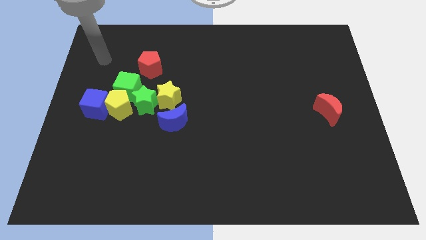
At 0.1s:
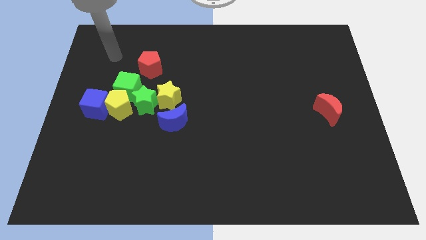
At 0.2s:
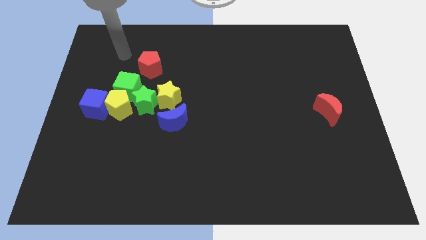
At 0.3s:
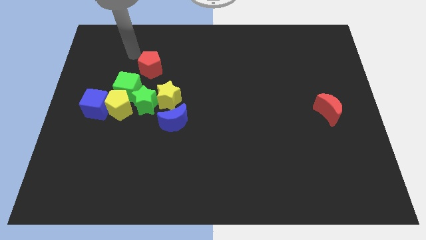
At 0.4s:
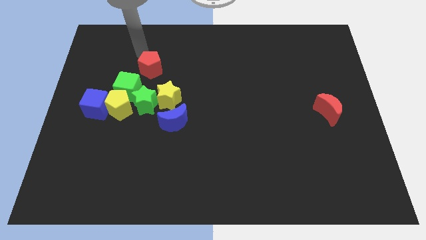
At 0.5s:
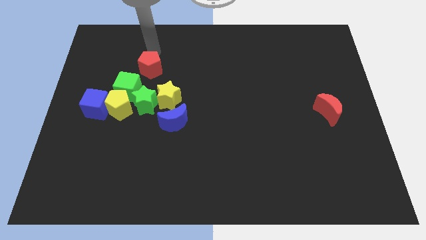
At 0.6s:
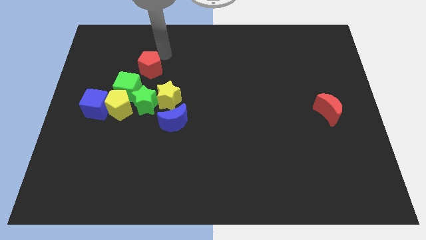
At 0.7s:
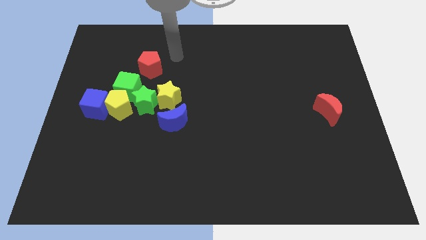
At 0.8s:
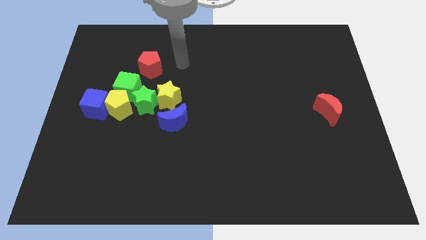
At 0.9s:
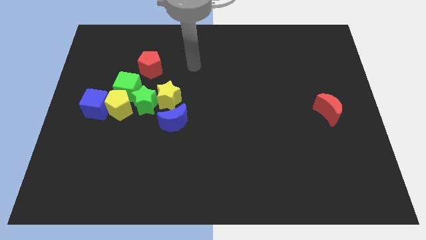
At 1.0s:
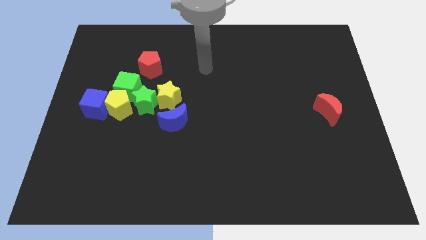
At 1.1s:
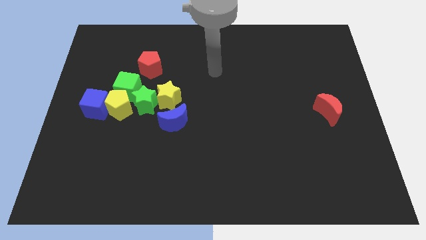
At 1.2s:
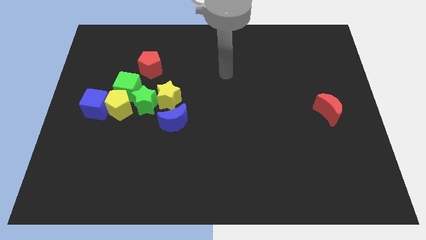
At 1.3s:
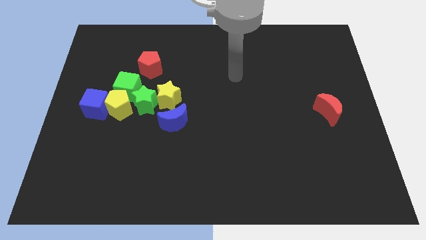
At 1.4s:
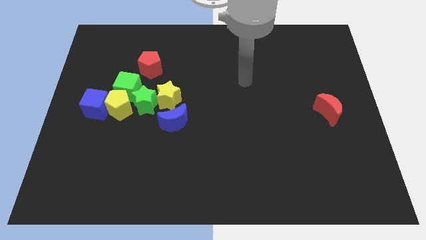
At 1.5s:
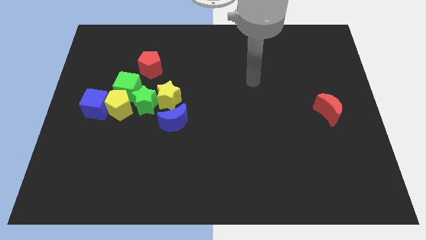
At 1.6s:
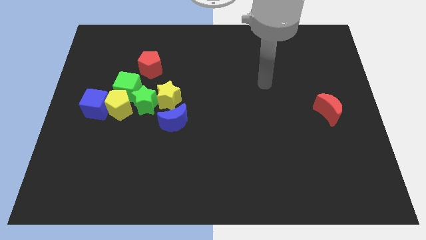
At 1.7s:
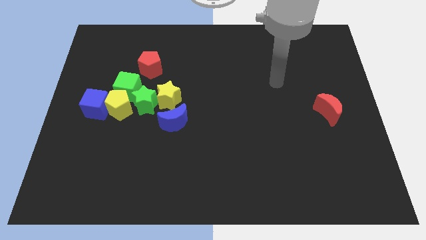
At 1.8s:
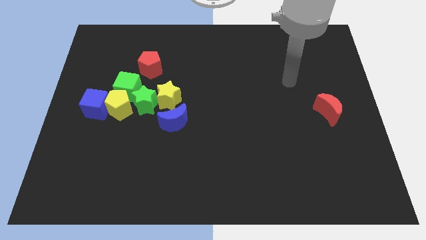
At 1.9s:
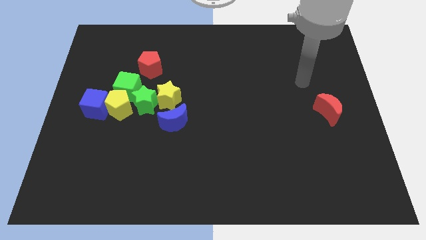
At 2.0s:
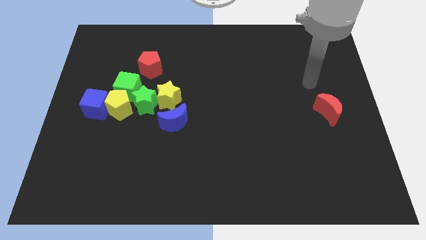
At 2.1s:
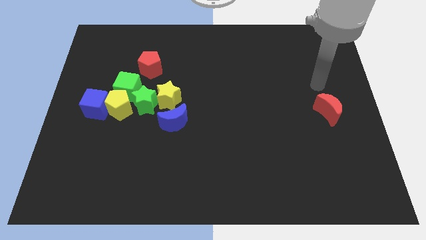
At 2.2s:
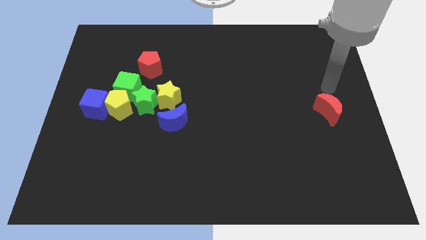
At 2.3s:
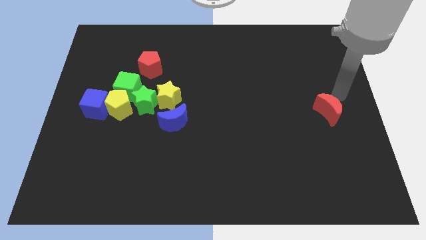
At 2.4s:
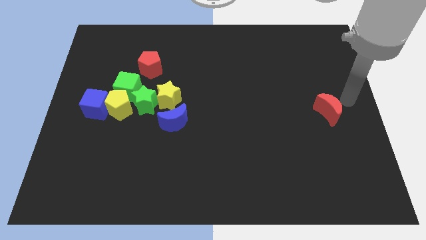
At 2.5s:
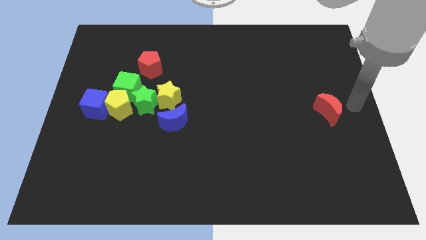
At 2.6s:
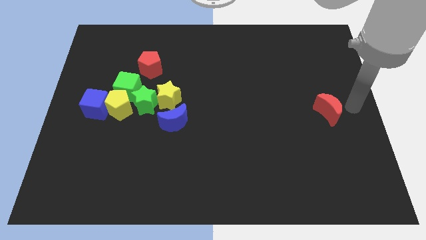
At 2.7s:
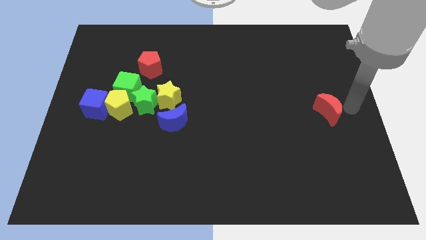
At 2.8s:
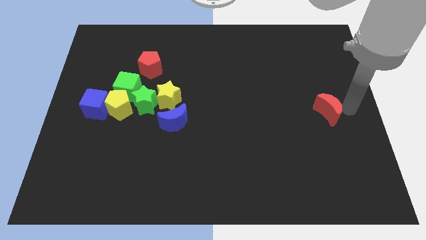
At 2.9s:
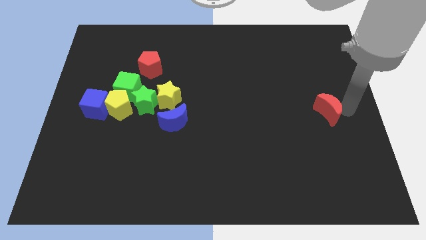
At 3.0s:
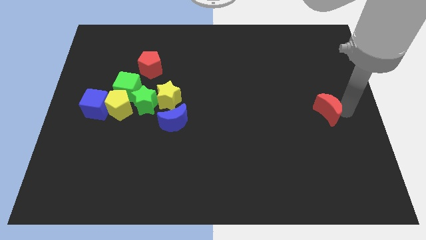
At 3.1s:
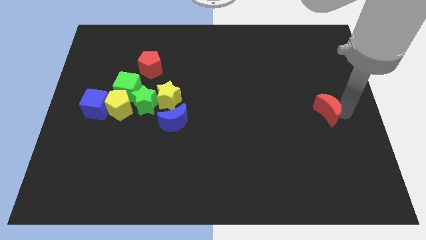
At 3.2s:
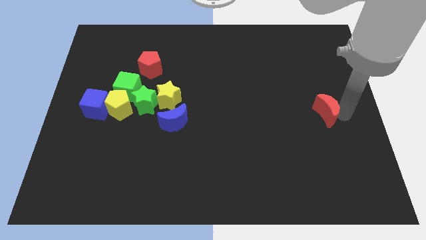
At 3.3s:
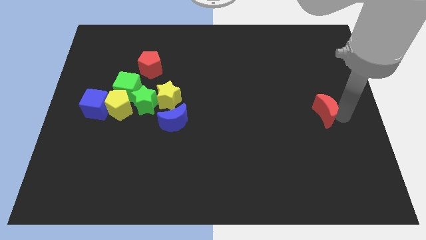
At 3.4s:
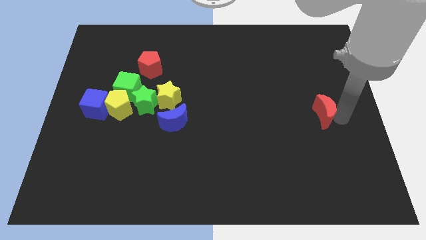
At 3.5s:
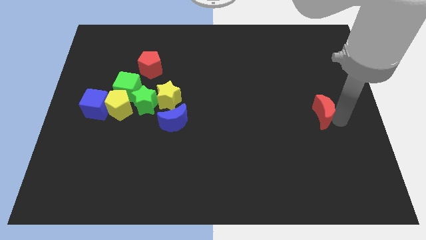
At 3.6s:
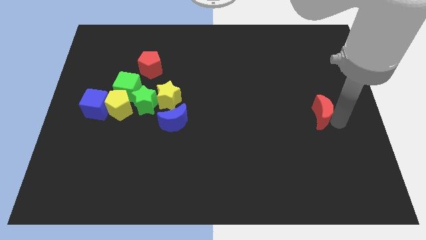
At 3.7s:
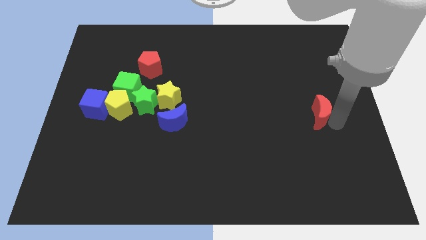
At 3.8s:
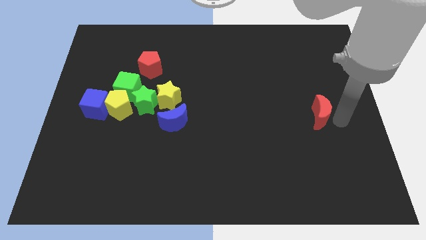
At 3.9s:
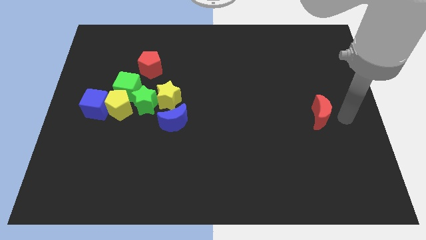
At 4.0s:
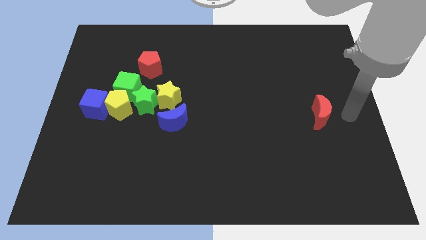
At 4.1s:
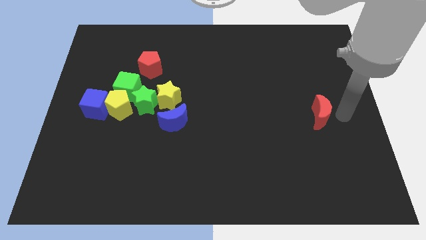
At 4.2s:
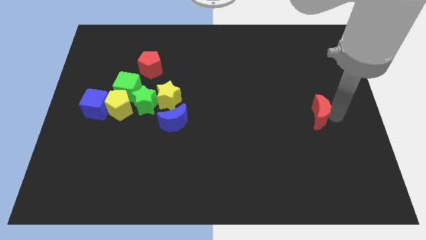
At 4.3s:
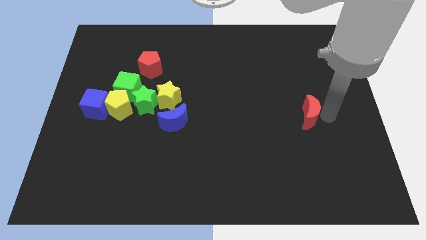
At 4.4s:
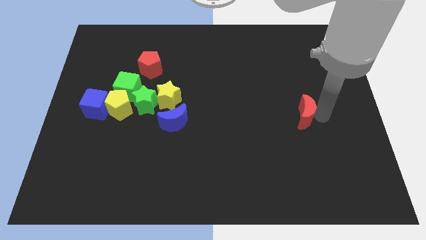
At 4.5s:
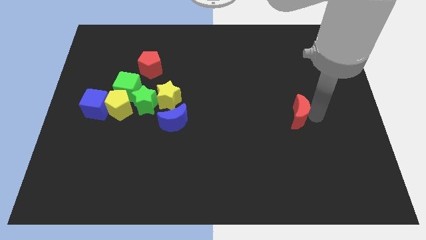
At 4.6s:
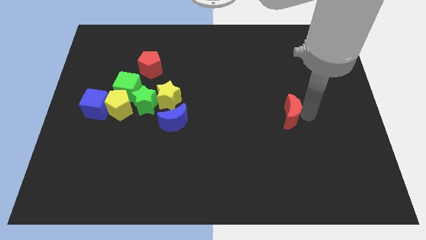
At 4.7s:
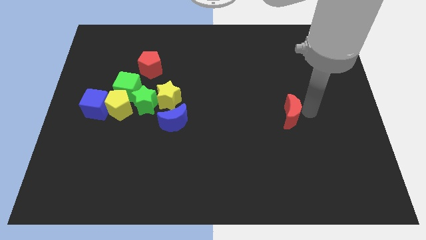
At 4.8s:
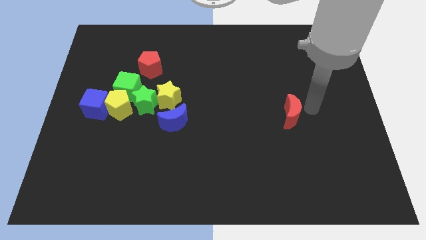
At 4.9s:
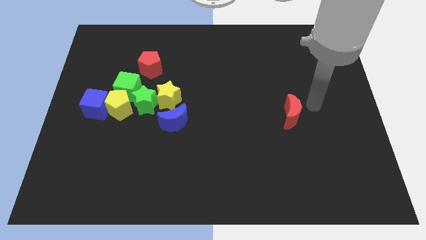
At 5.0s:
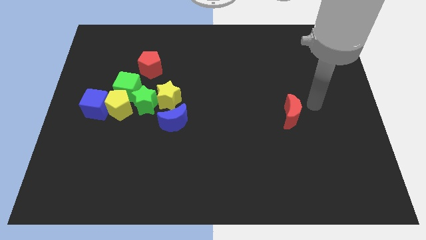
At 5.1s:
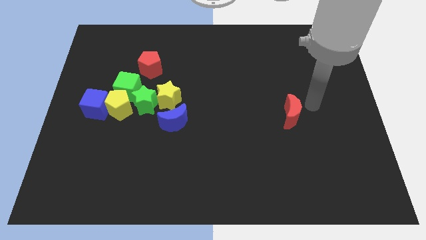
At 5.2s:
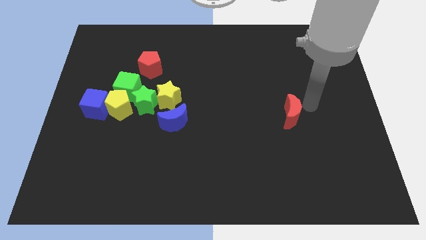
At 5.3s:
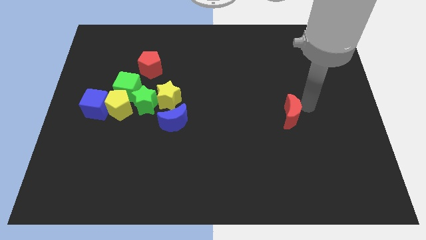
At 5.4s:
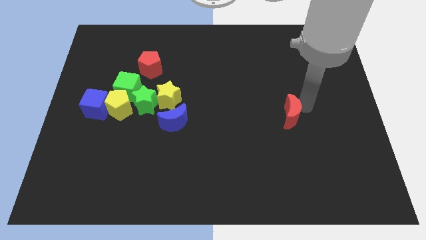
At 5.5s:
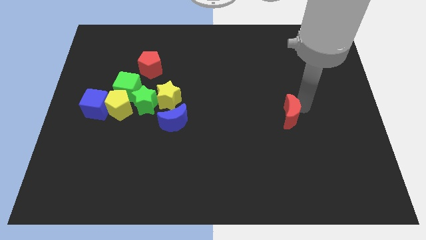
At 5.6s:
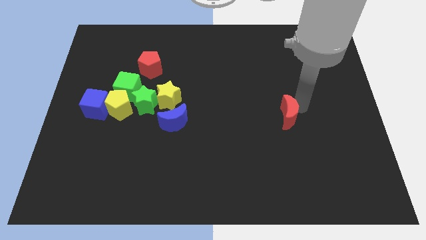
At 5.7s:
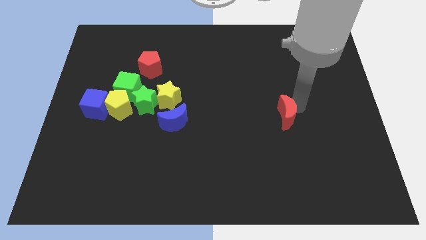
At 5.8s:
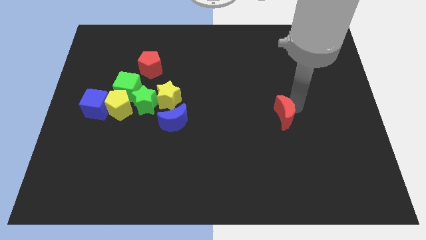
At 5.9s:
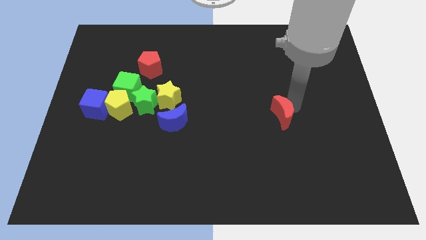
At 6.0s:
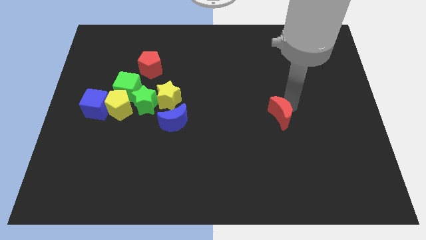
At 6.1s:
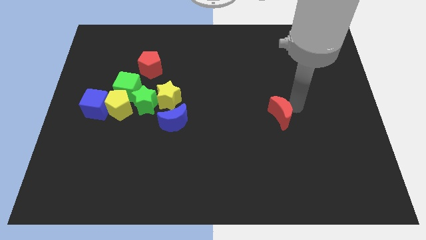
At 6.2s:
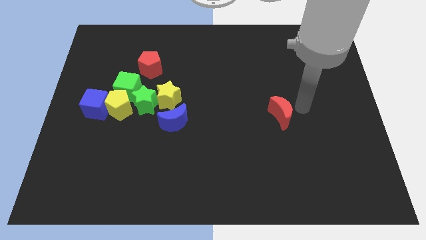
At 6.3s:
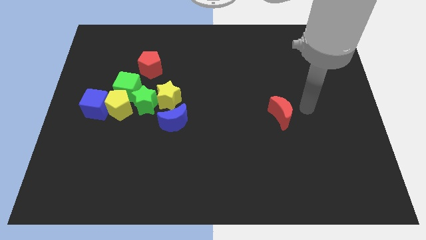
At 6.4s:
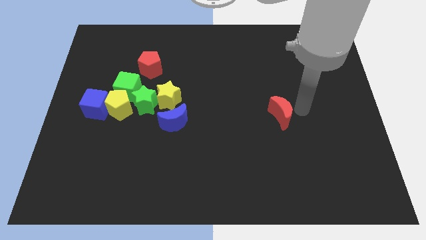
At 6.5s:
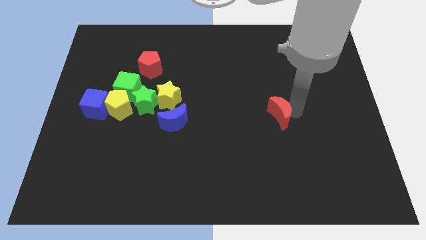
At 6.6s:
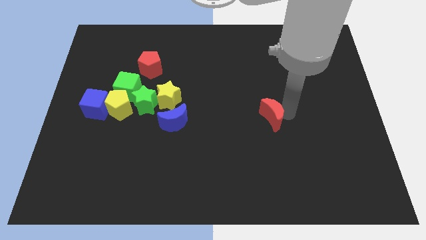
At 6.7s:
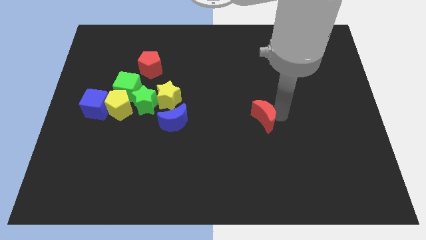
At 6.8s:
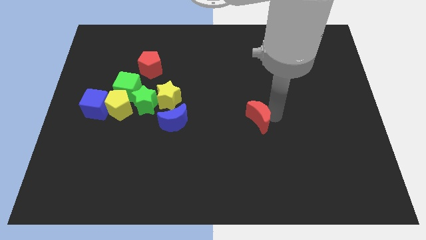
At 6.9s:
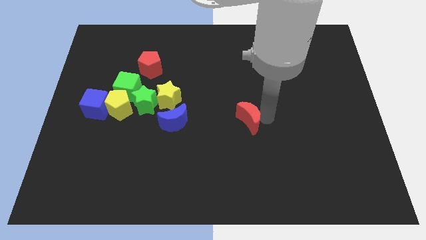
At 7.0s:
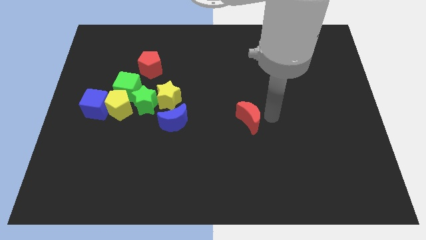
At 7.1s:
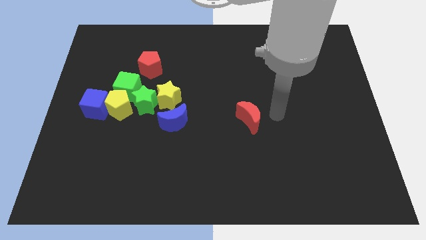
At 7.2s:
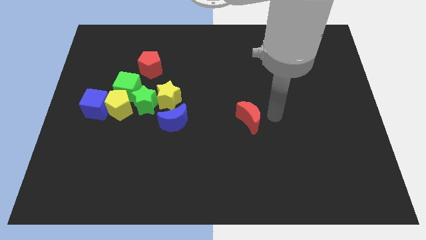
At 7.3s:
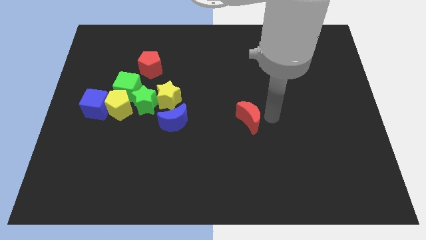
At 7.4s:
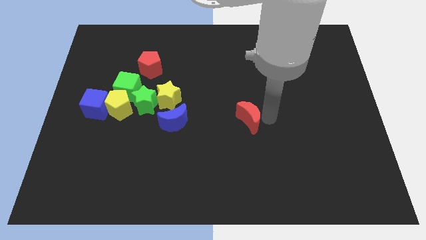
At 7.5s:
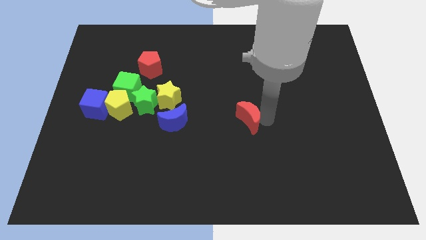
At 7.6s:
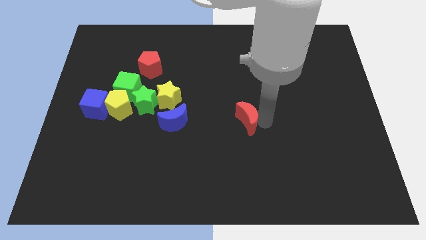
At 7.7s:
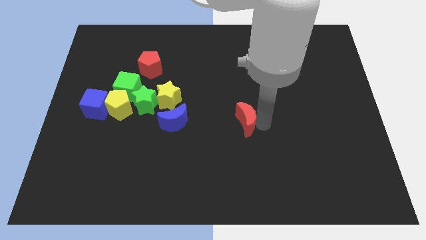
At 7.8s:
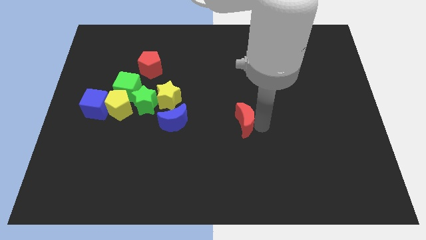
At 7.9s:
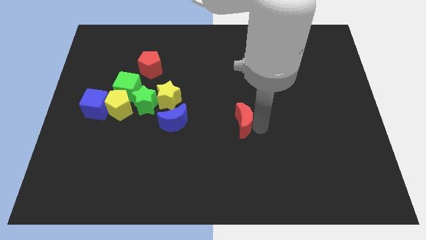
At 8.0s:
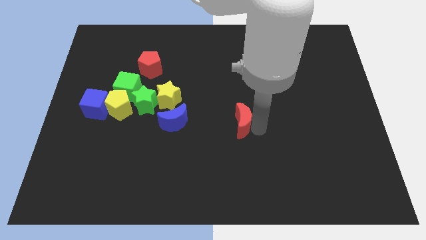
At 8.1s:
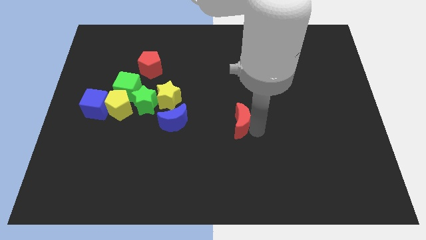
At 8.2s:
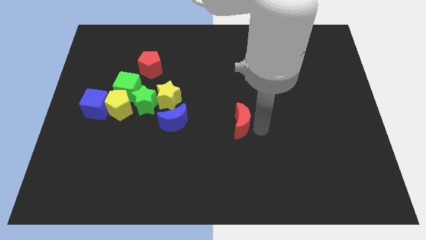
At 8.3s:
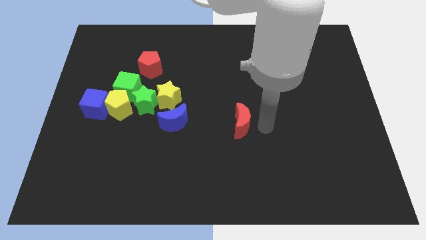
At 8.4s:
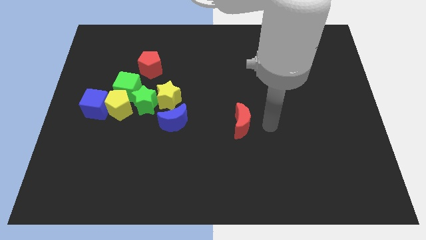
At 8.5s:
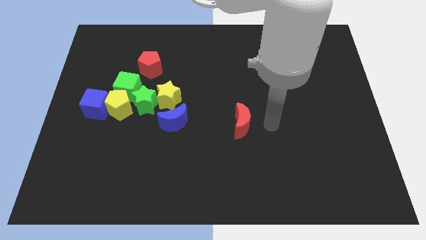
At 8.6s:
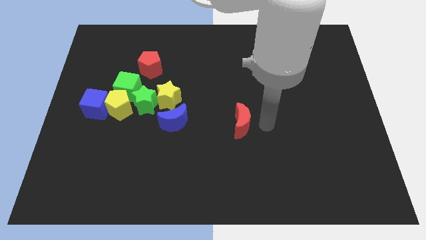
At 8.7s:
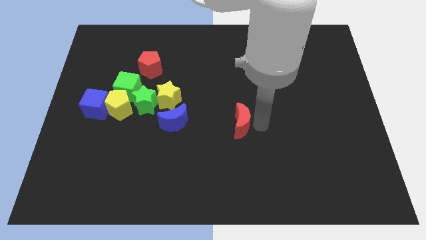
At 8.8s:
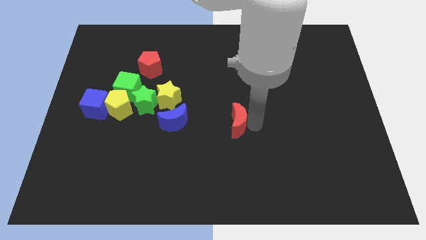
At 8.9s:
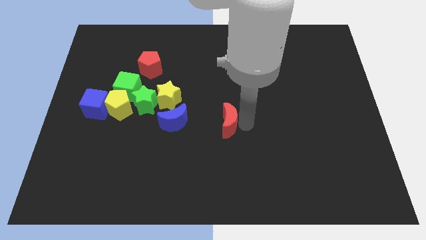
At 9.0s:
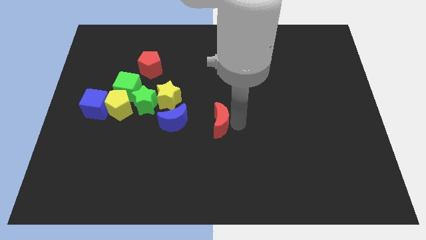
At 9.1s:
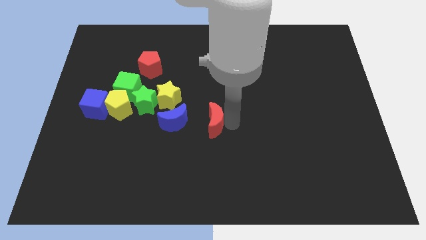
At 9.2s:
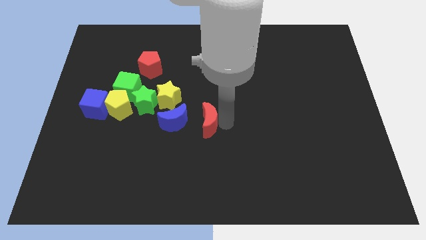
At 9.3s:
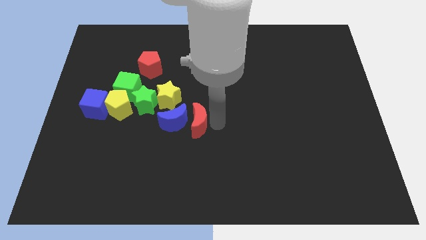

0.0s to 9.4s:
slide the red moon next to the blue moon
